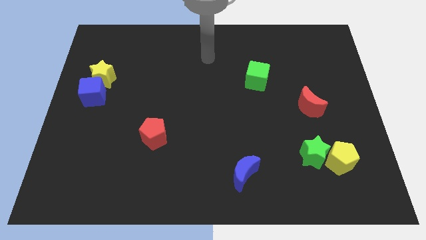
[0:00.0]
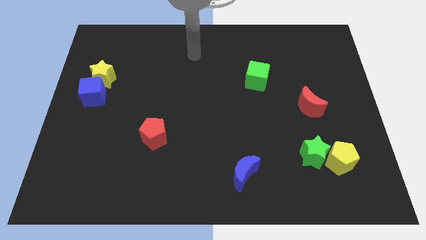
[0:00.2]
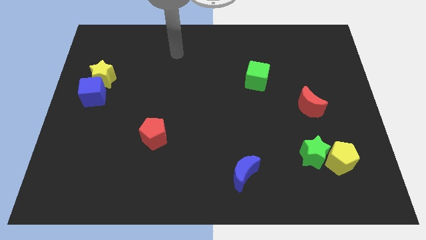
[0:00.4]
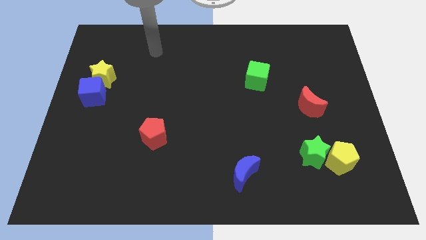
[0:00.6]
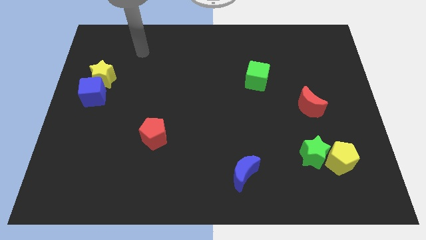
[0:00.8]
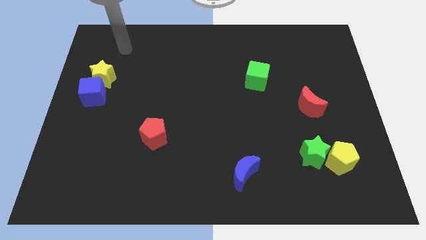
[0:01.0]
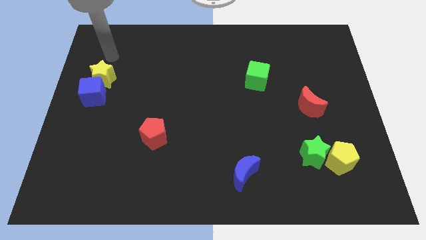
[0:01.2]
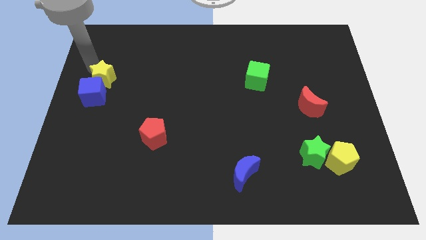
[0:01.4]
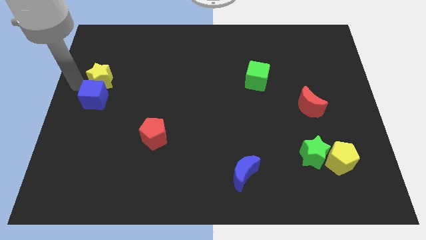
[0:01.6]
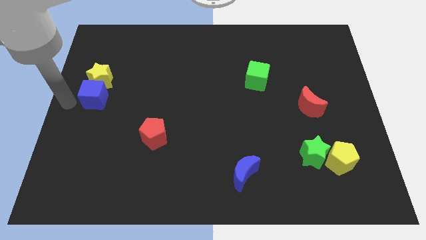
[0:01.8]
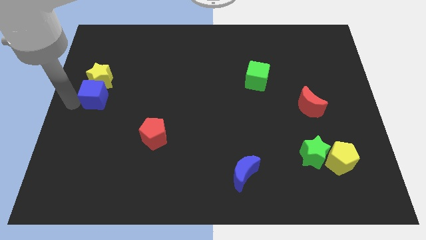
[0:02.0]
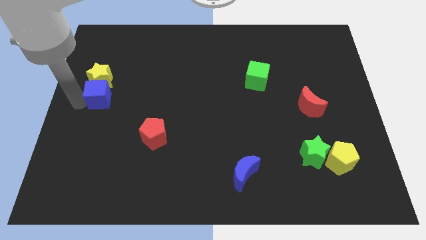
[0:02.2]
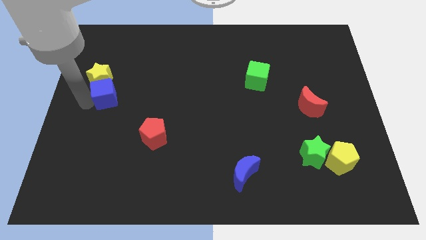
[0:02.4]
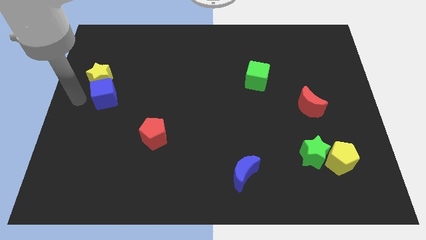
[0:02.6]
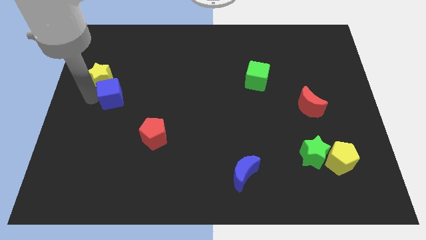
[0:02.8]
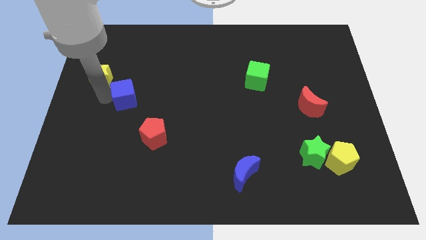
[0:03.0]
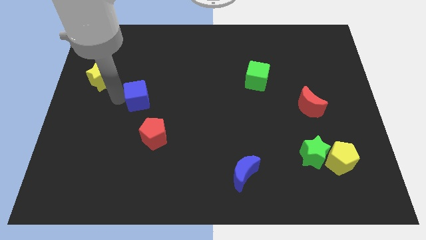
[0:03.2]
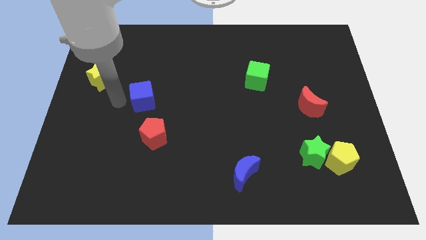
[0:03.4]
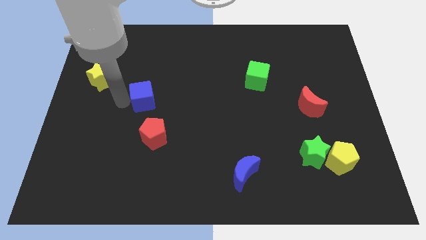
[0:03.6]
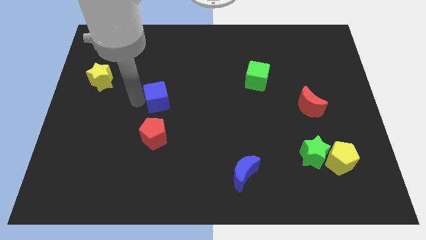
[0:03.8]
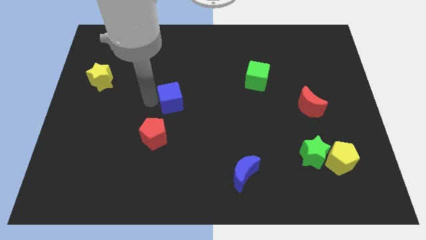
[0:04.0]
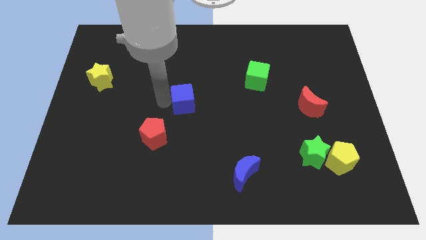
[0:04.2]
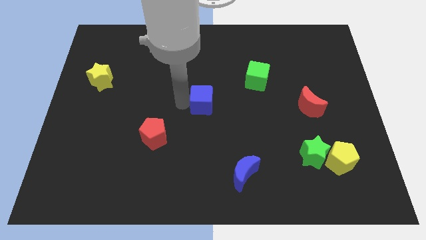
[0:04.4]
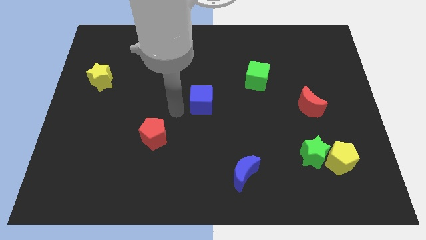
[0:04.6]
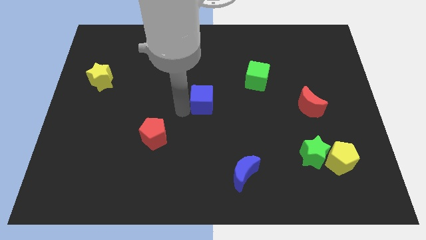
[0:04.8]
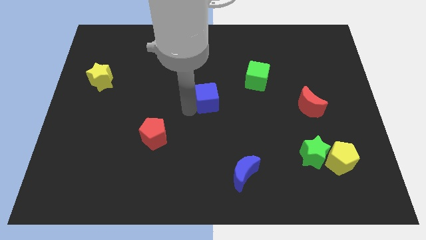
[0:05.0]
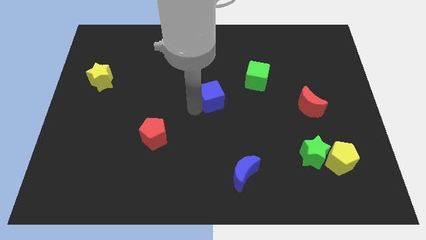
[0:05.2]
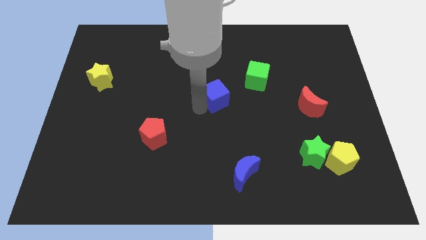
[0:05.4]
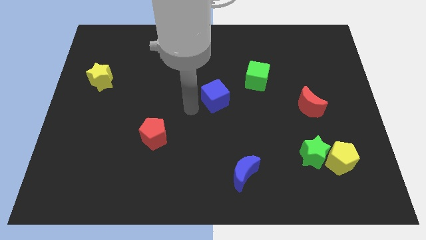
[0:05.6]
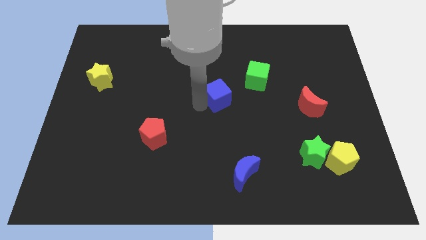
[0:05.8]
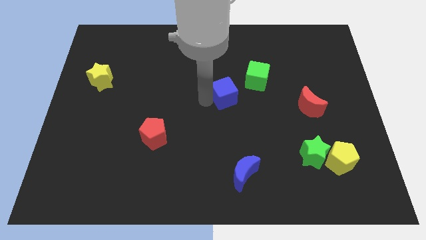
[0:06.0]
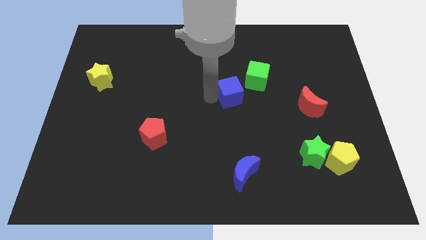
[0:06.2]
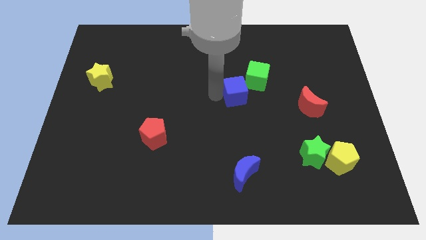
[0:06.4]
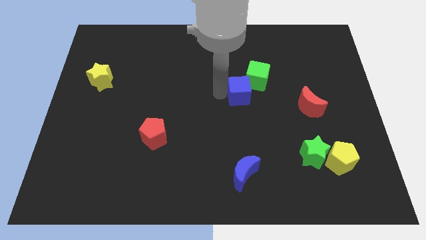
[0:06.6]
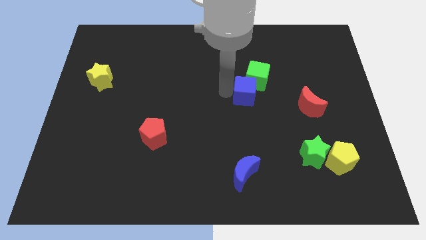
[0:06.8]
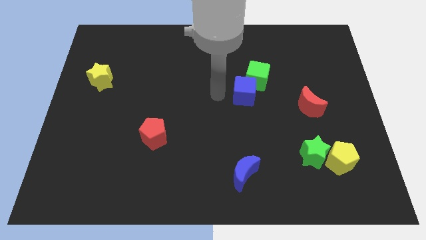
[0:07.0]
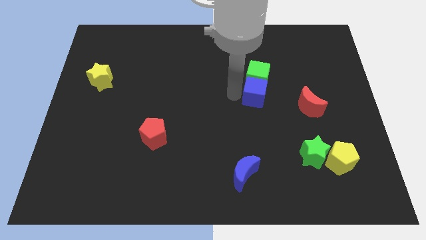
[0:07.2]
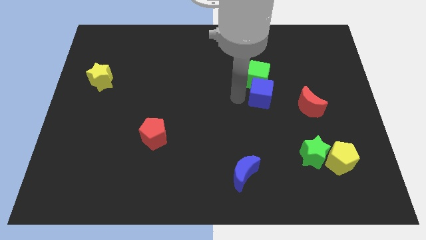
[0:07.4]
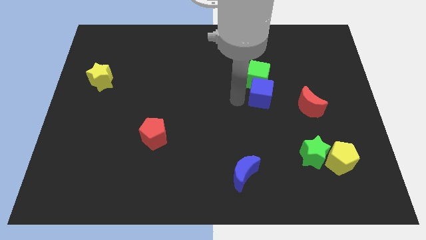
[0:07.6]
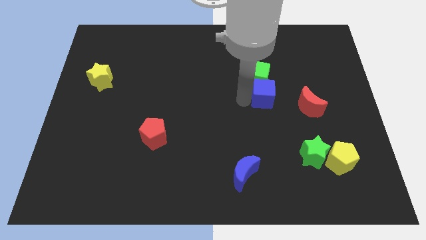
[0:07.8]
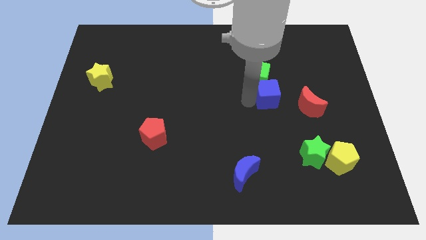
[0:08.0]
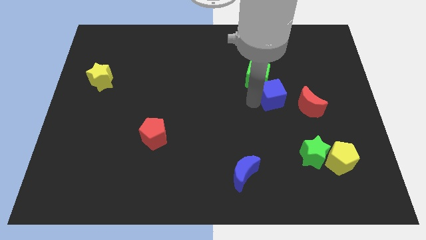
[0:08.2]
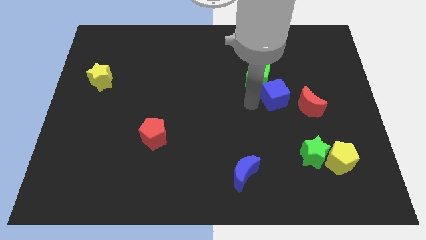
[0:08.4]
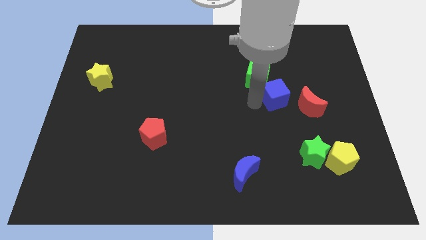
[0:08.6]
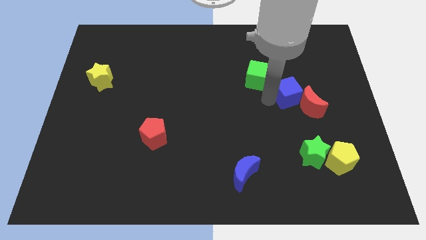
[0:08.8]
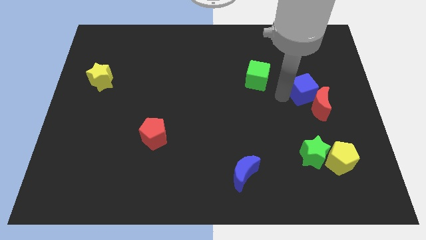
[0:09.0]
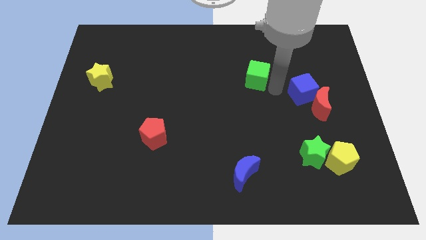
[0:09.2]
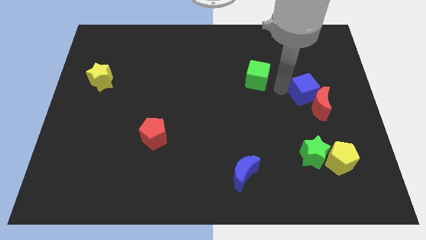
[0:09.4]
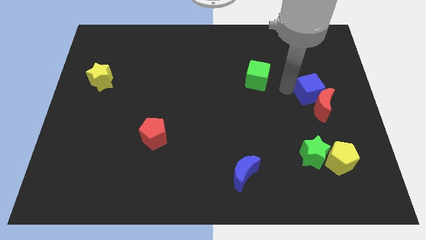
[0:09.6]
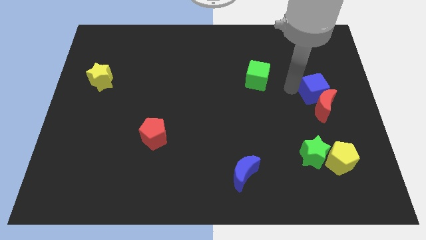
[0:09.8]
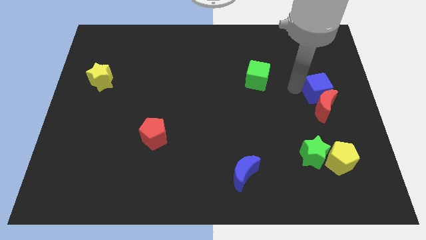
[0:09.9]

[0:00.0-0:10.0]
push the blue cube to the center right
